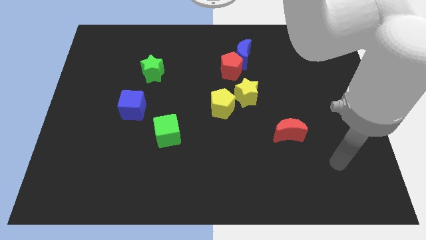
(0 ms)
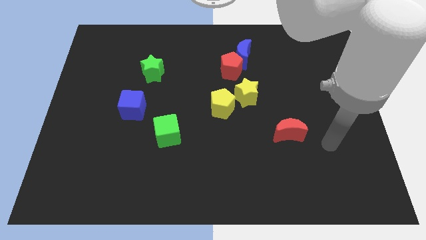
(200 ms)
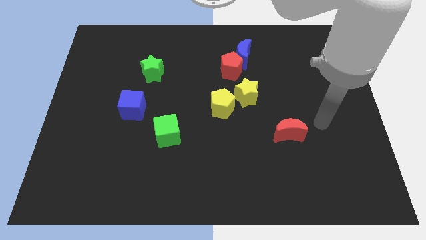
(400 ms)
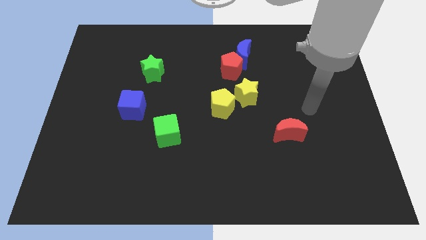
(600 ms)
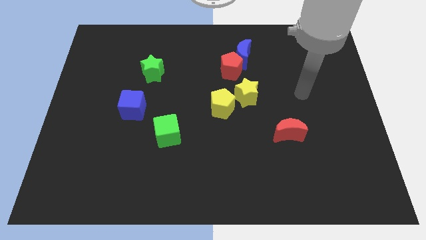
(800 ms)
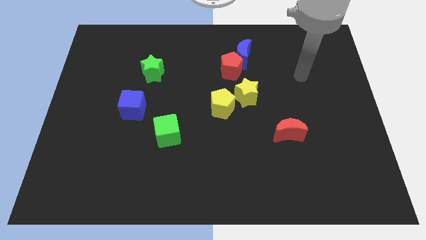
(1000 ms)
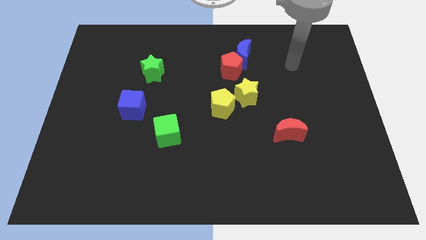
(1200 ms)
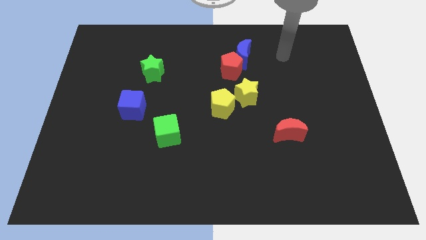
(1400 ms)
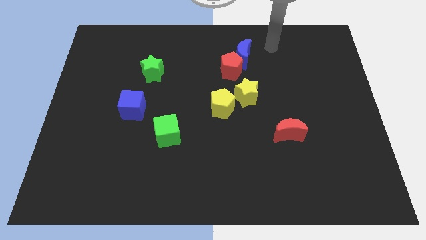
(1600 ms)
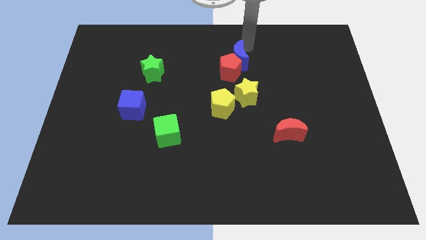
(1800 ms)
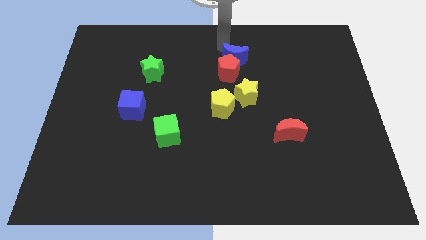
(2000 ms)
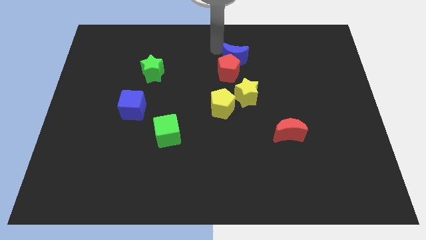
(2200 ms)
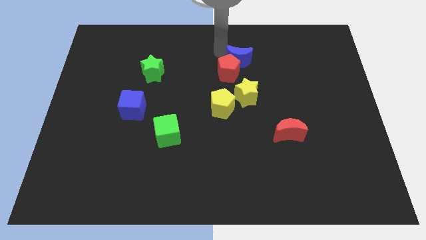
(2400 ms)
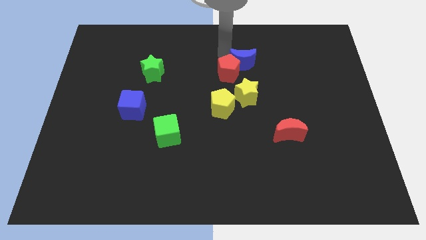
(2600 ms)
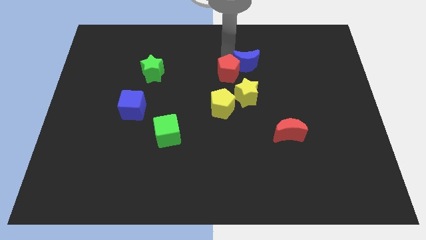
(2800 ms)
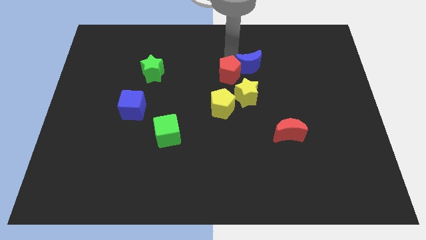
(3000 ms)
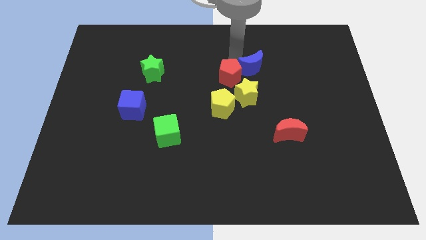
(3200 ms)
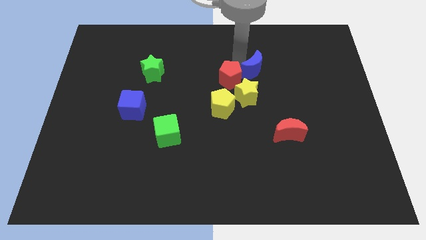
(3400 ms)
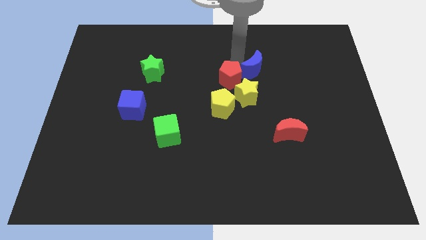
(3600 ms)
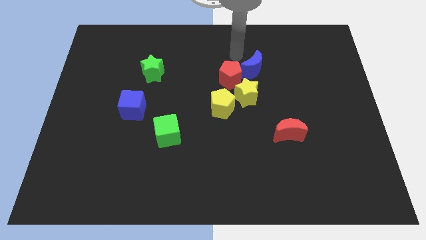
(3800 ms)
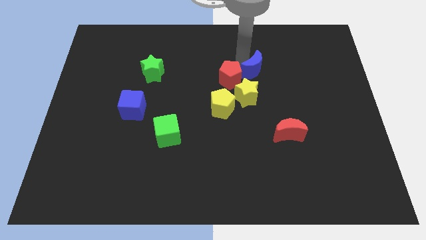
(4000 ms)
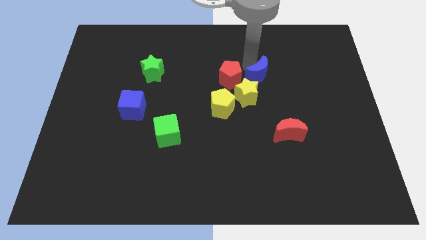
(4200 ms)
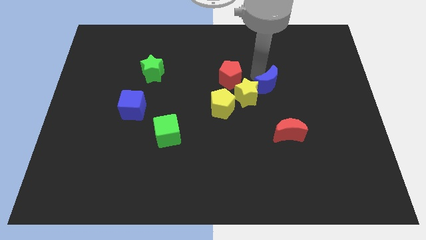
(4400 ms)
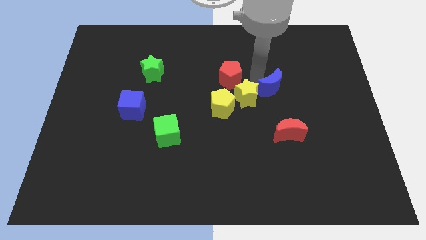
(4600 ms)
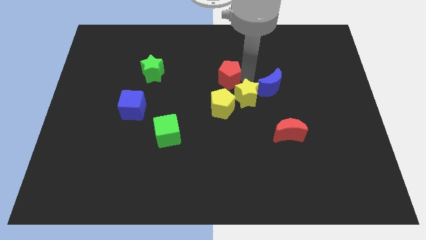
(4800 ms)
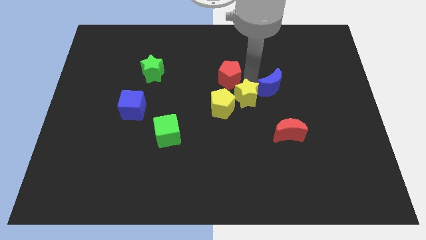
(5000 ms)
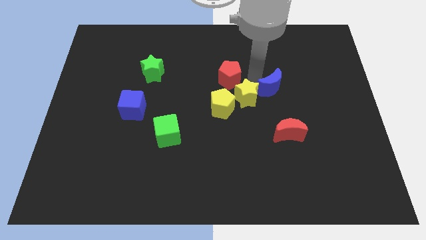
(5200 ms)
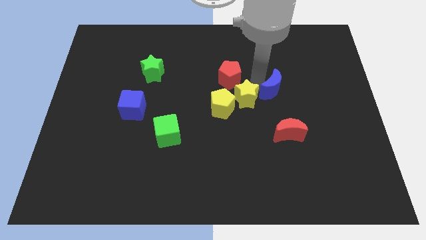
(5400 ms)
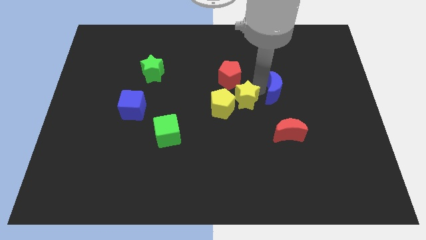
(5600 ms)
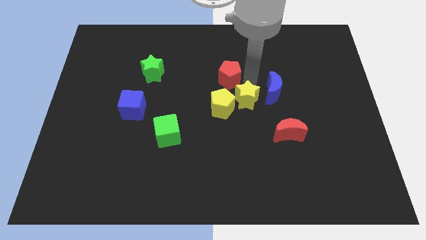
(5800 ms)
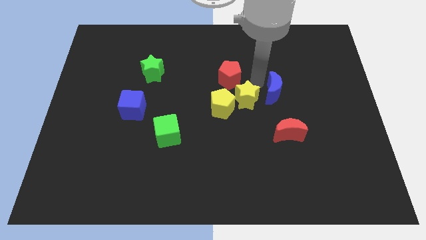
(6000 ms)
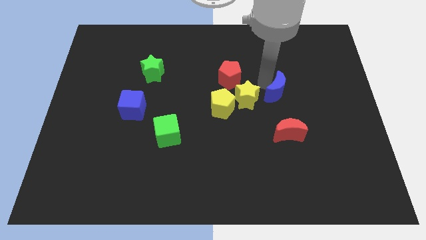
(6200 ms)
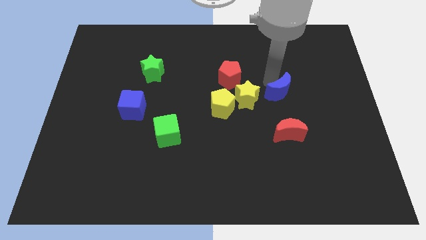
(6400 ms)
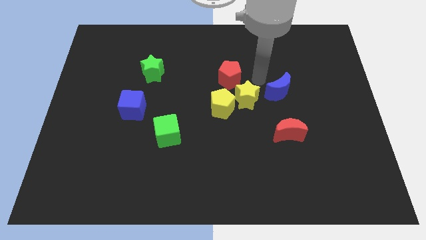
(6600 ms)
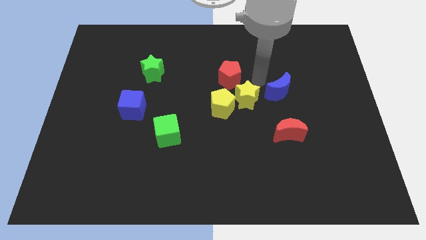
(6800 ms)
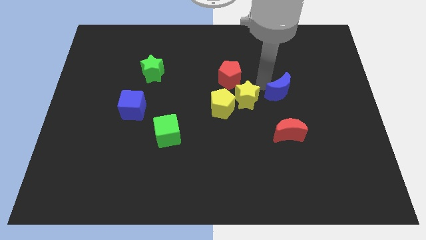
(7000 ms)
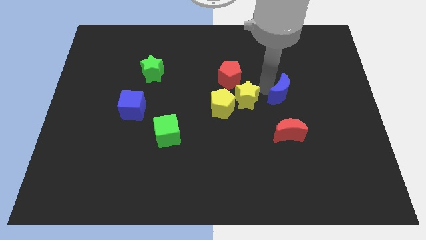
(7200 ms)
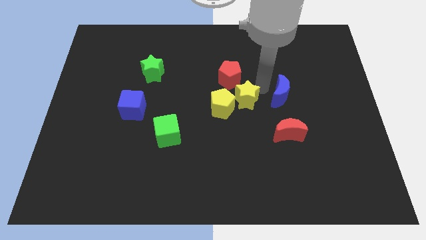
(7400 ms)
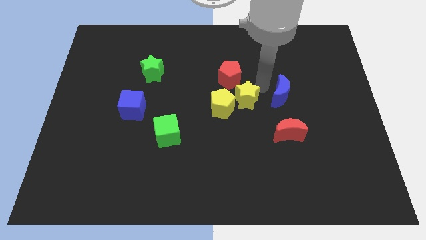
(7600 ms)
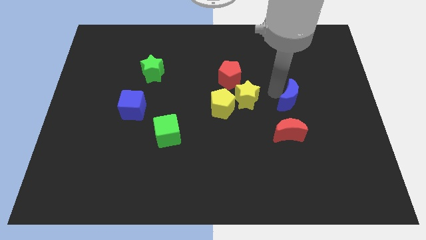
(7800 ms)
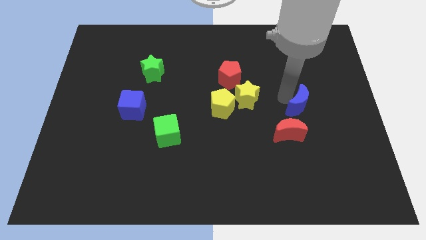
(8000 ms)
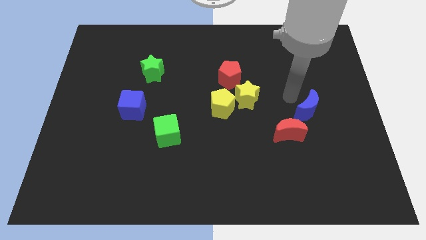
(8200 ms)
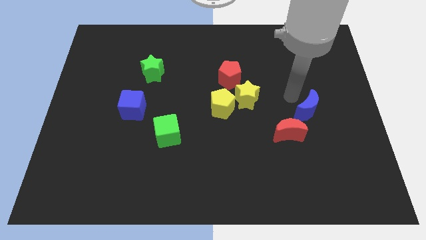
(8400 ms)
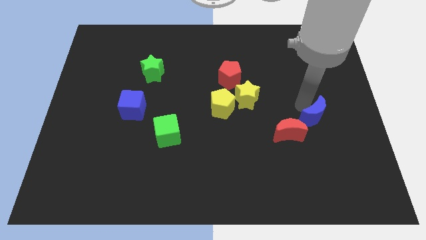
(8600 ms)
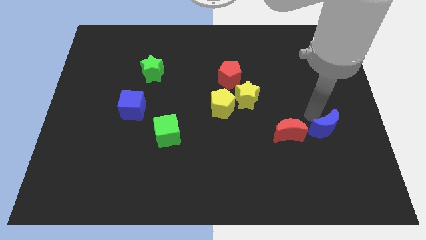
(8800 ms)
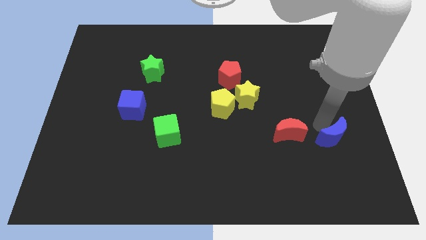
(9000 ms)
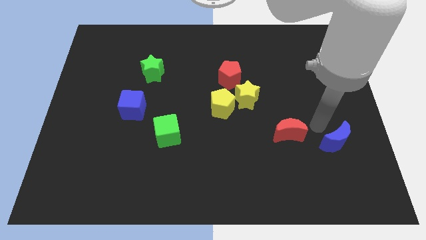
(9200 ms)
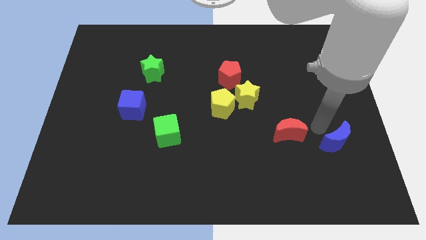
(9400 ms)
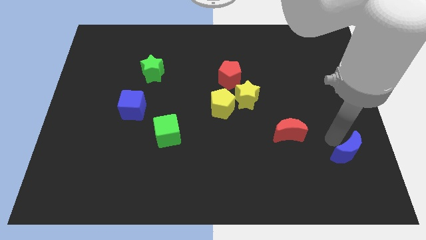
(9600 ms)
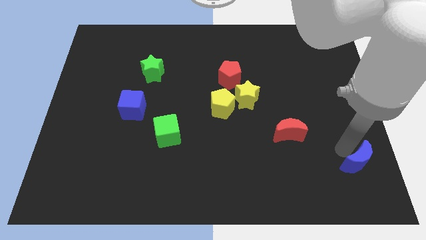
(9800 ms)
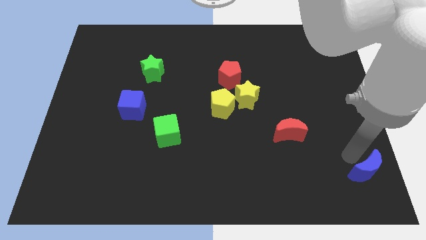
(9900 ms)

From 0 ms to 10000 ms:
move the blue moon to the bottom right

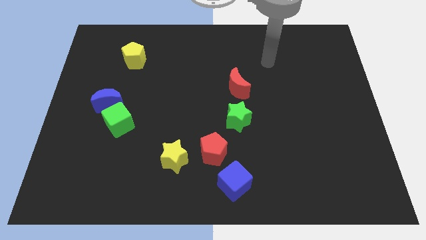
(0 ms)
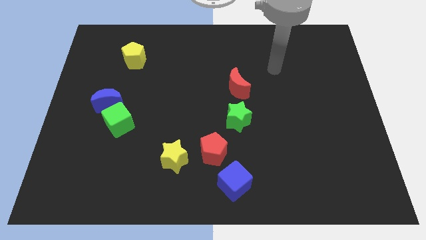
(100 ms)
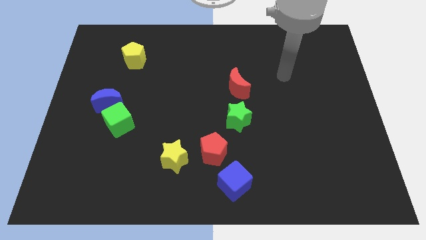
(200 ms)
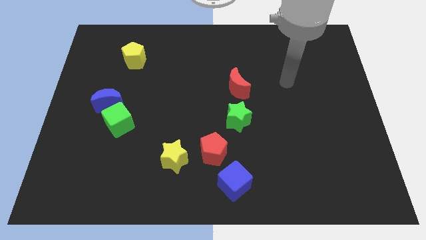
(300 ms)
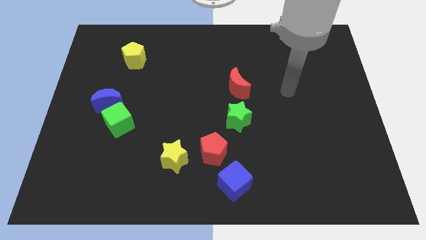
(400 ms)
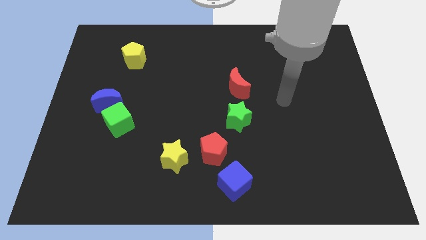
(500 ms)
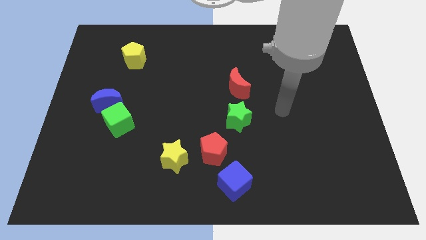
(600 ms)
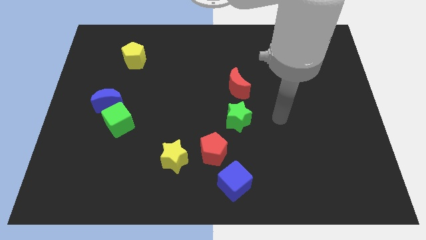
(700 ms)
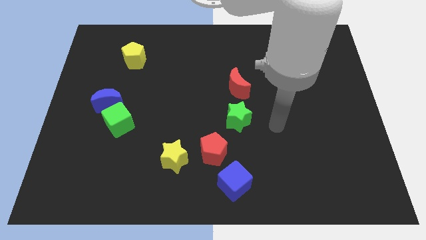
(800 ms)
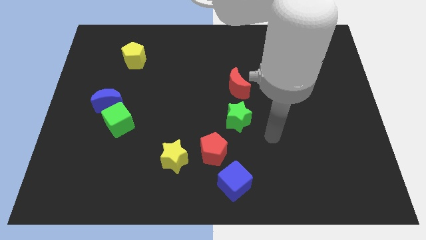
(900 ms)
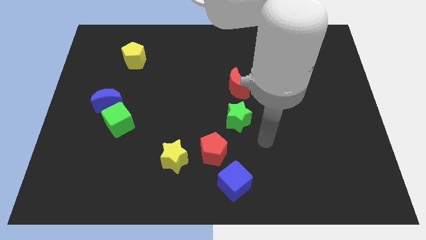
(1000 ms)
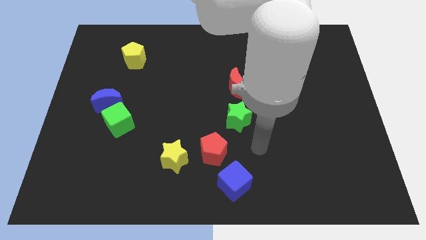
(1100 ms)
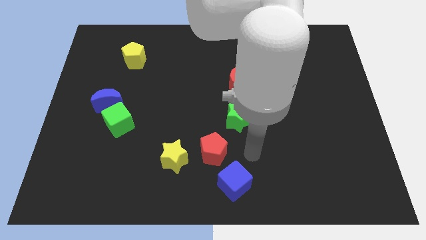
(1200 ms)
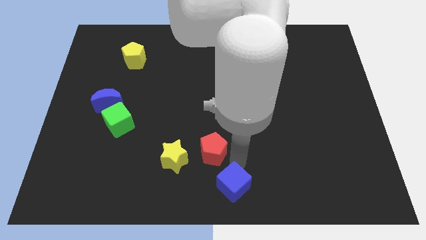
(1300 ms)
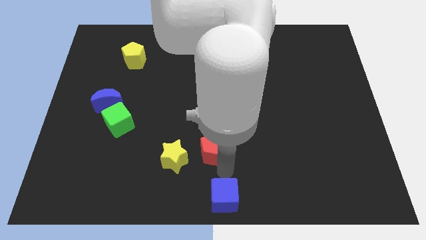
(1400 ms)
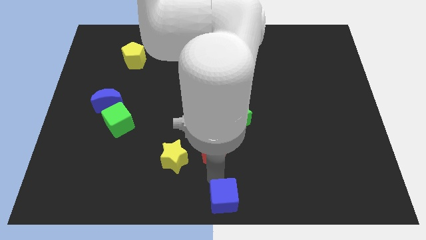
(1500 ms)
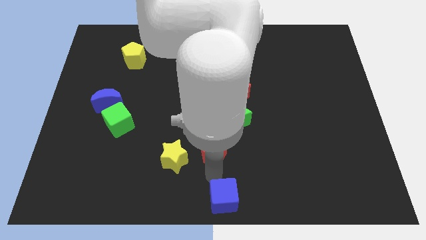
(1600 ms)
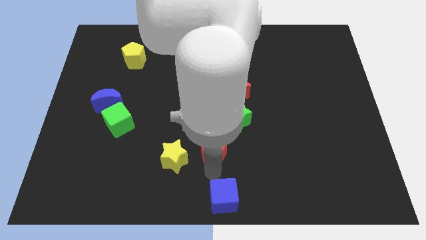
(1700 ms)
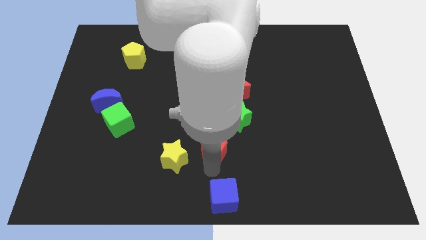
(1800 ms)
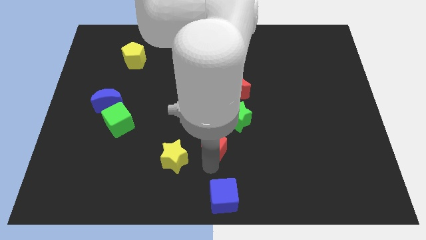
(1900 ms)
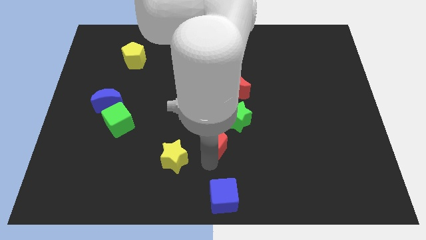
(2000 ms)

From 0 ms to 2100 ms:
put the red pentagon to the center of the board

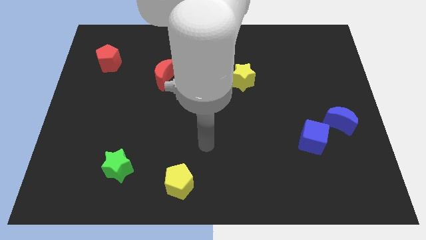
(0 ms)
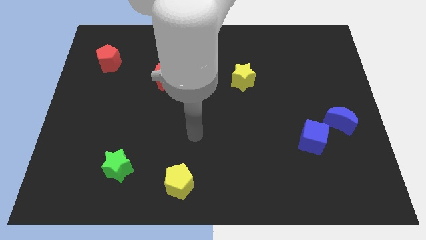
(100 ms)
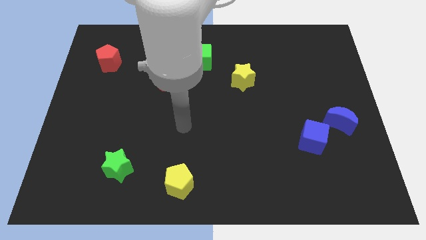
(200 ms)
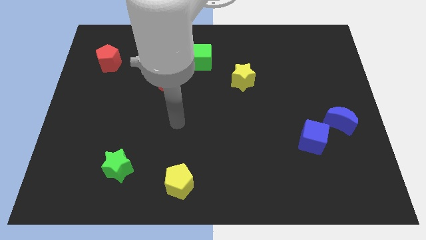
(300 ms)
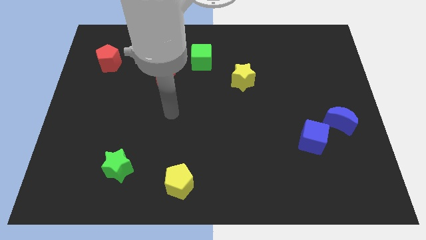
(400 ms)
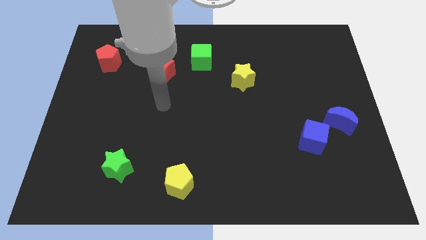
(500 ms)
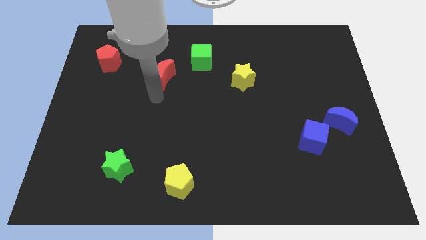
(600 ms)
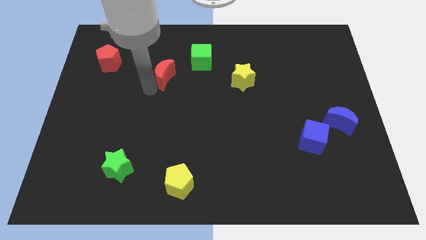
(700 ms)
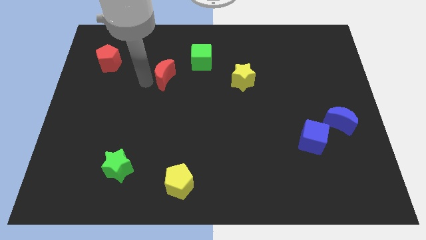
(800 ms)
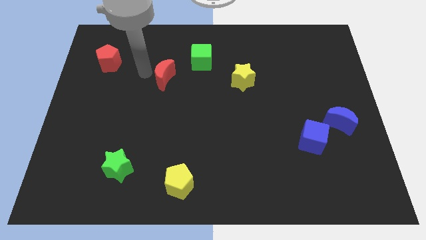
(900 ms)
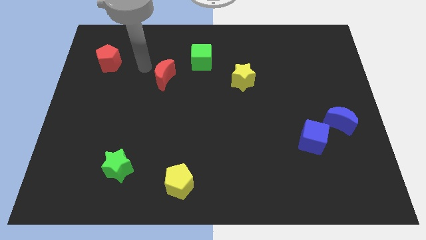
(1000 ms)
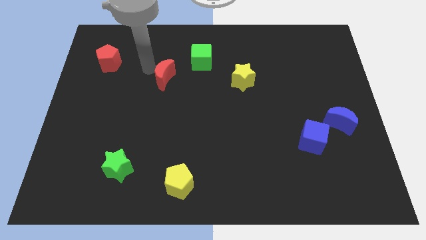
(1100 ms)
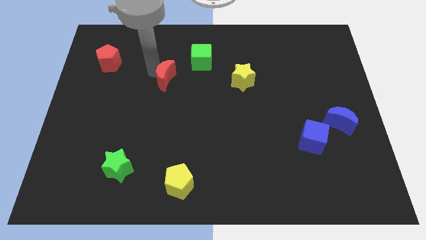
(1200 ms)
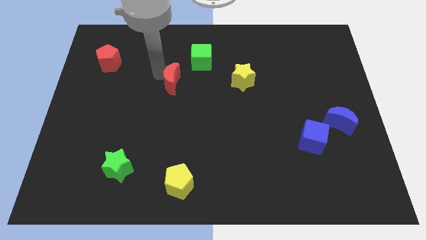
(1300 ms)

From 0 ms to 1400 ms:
push the red moon to the middle

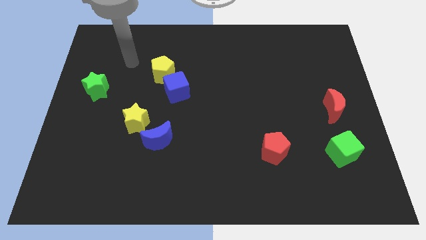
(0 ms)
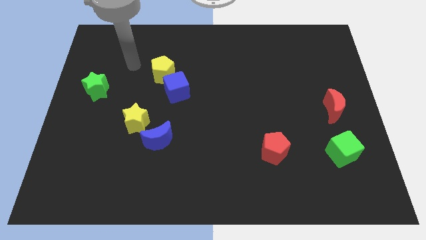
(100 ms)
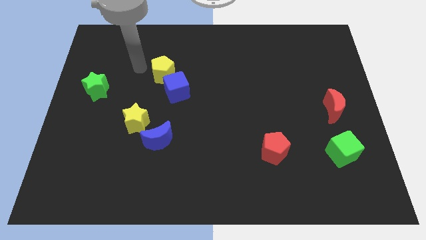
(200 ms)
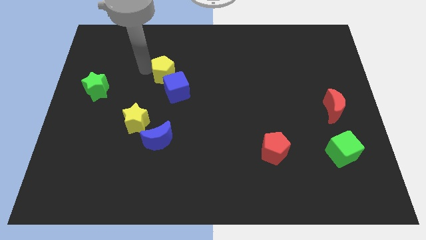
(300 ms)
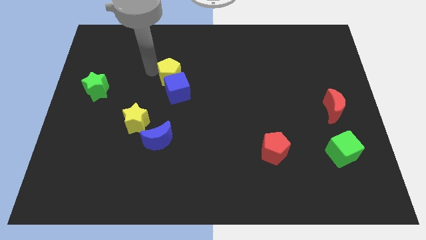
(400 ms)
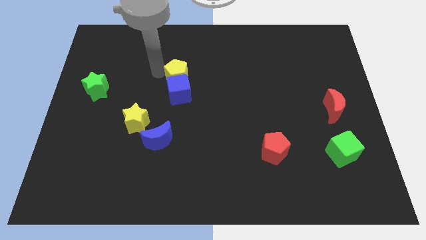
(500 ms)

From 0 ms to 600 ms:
slide the yellow pentagon to the center of the board
